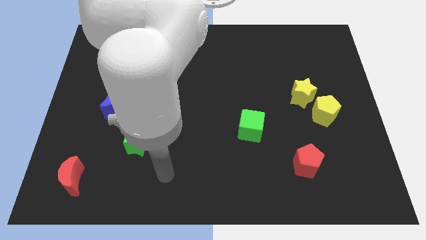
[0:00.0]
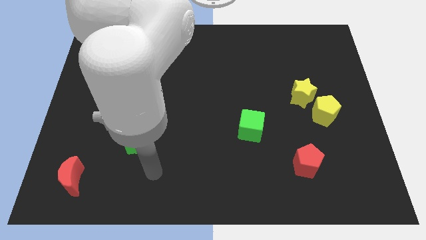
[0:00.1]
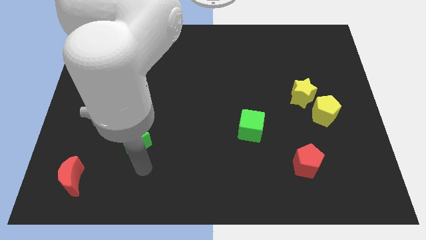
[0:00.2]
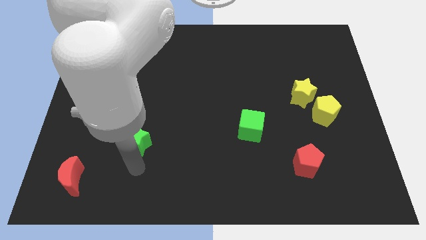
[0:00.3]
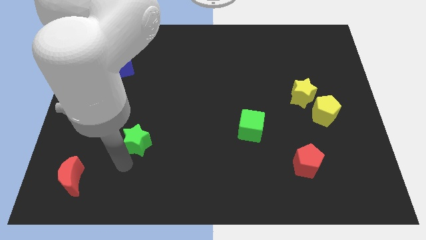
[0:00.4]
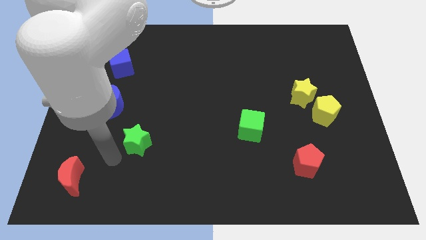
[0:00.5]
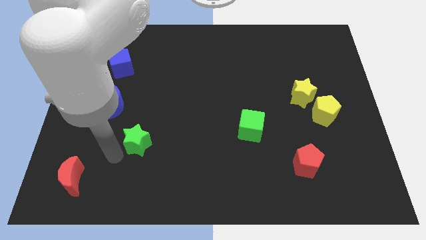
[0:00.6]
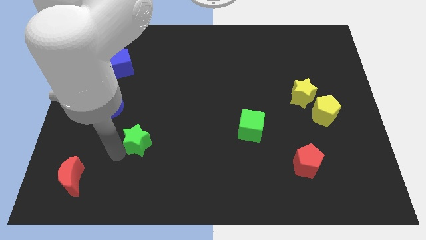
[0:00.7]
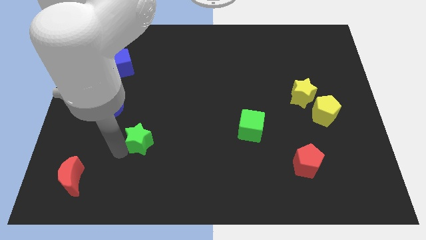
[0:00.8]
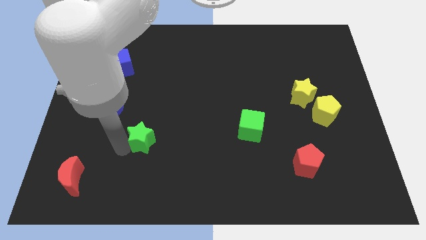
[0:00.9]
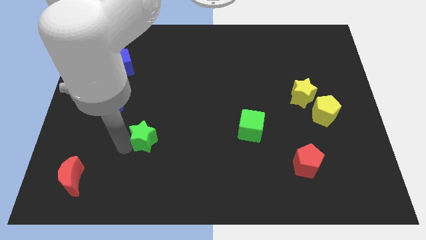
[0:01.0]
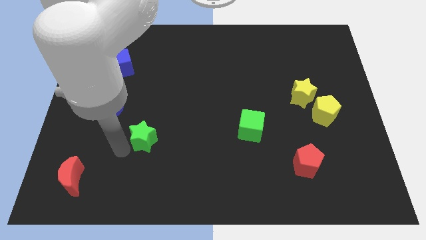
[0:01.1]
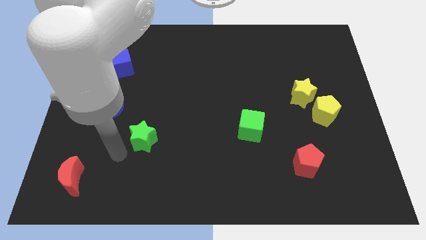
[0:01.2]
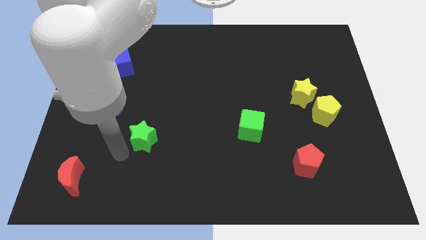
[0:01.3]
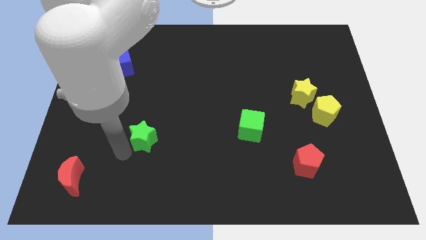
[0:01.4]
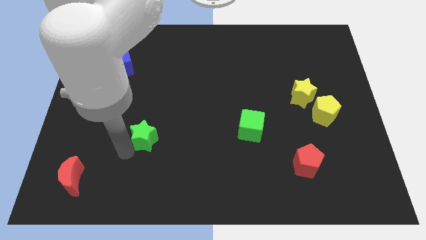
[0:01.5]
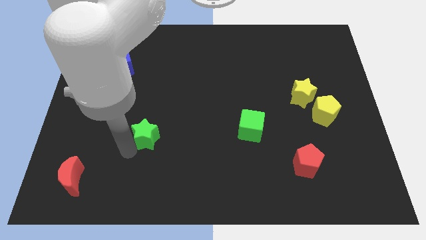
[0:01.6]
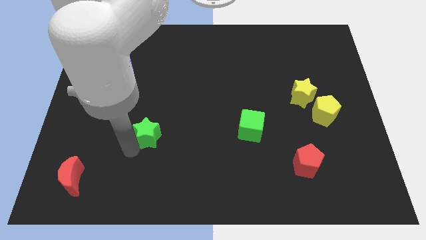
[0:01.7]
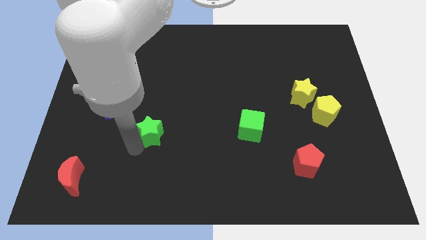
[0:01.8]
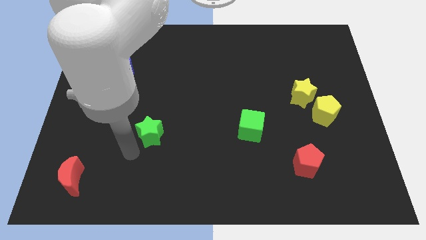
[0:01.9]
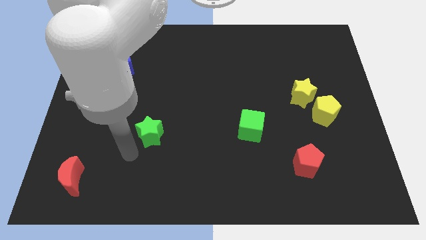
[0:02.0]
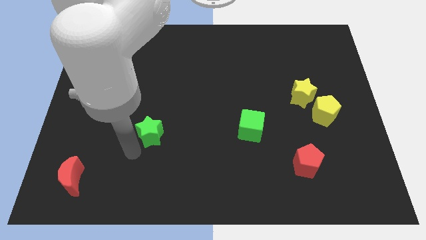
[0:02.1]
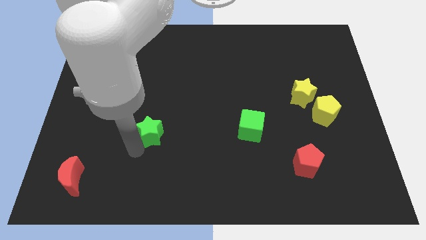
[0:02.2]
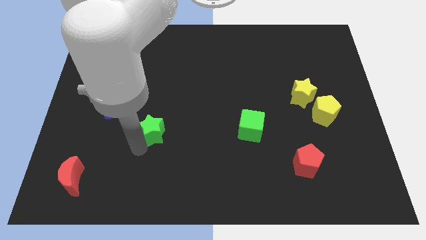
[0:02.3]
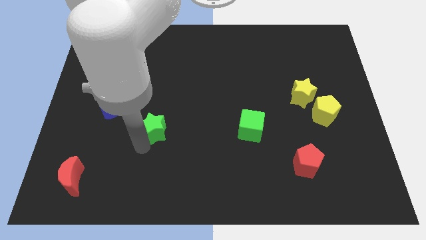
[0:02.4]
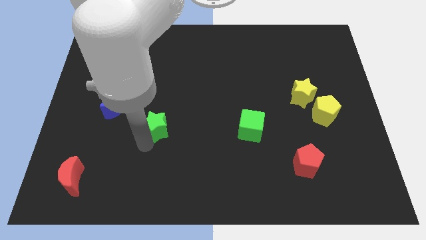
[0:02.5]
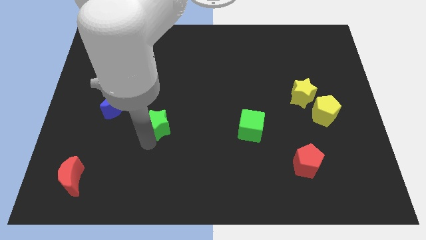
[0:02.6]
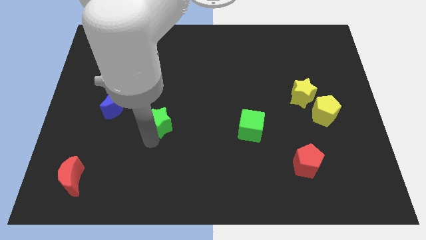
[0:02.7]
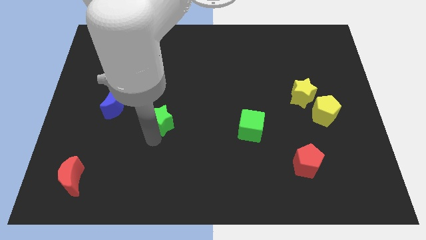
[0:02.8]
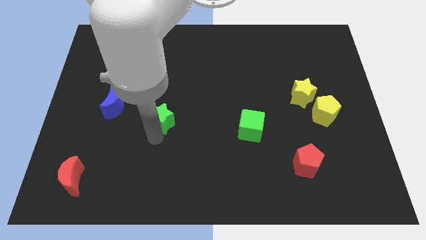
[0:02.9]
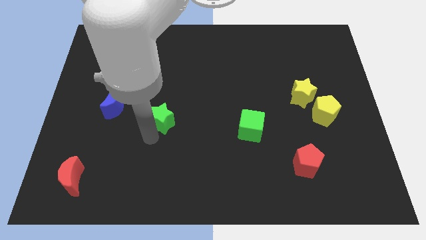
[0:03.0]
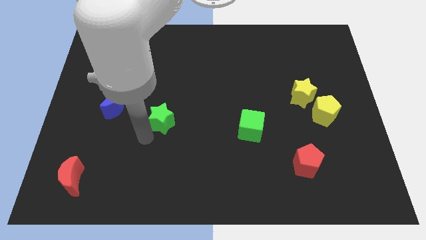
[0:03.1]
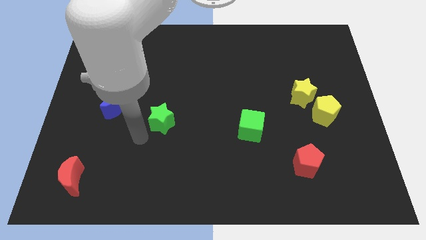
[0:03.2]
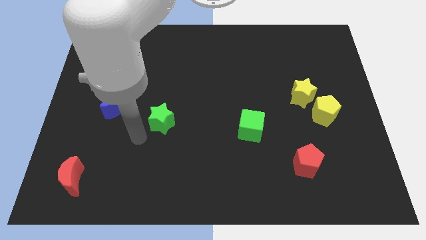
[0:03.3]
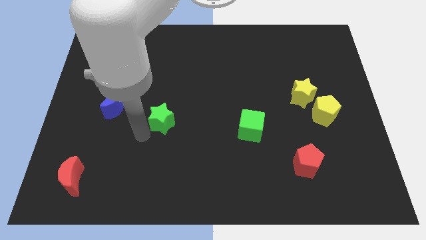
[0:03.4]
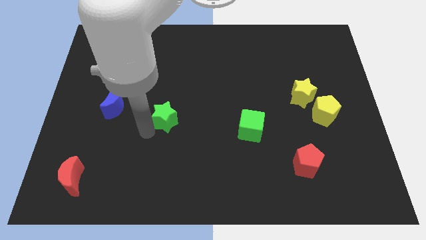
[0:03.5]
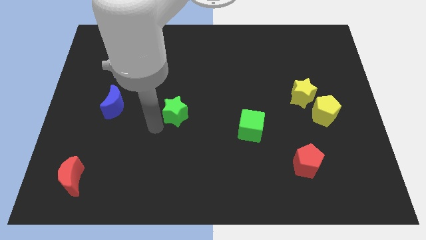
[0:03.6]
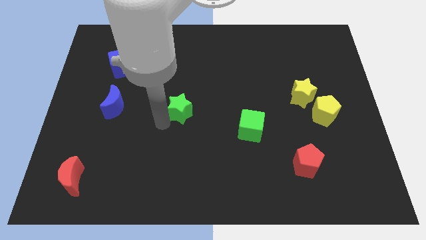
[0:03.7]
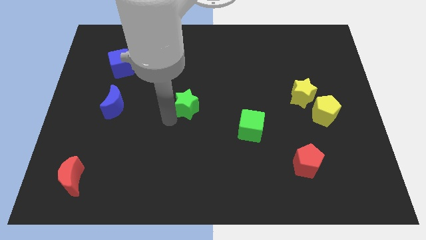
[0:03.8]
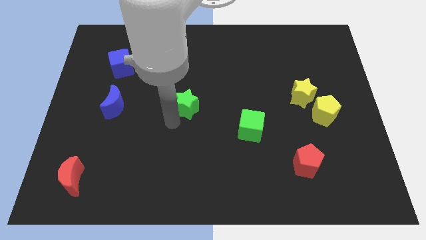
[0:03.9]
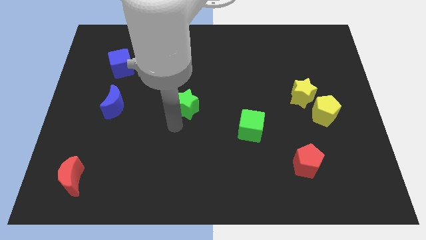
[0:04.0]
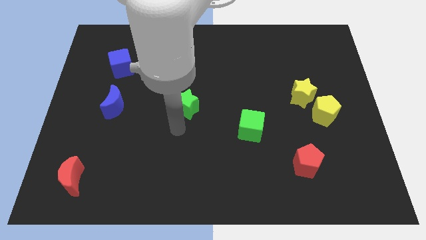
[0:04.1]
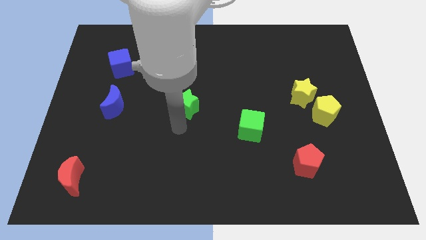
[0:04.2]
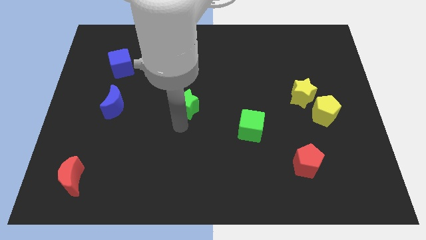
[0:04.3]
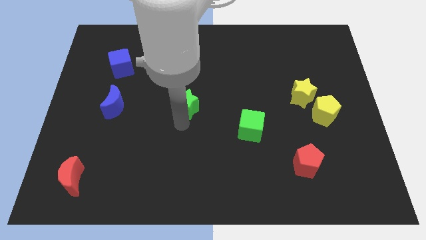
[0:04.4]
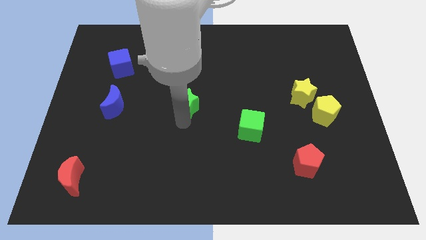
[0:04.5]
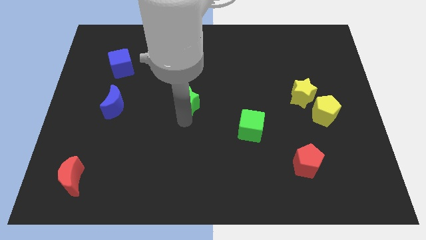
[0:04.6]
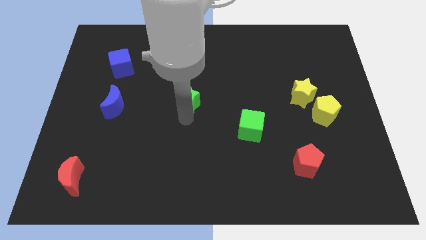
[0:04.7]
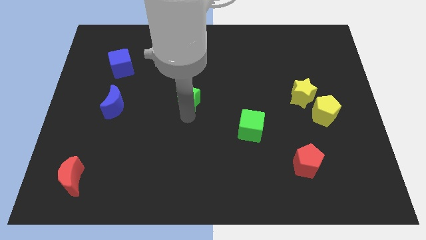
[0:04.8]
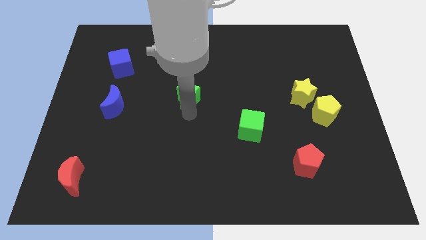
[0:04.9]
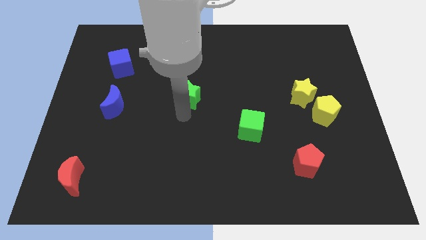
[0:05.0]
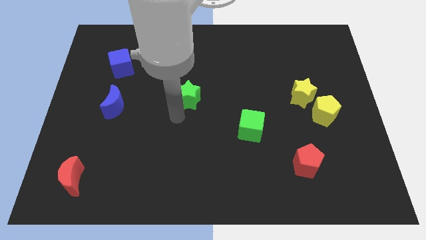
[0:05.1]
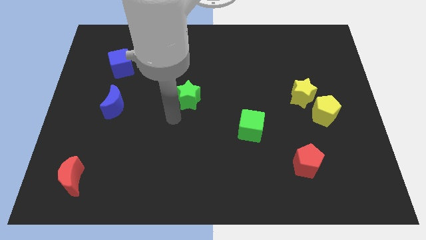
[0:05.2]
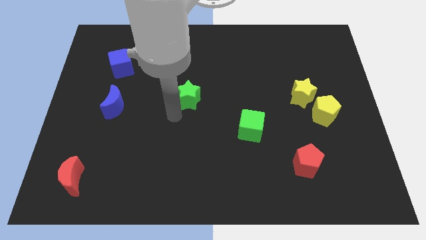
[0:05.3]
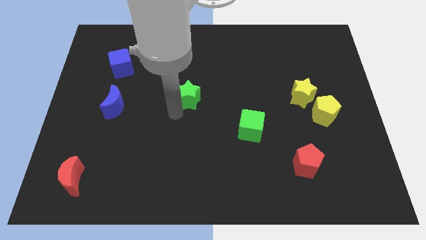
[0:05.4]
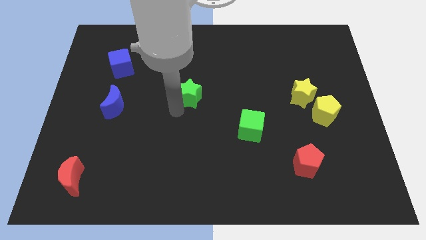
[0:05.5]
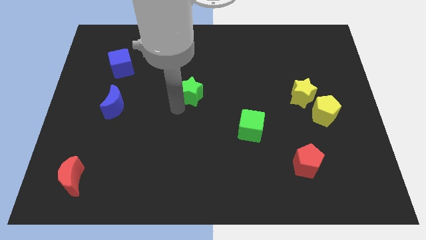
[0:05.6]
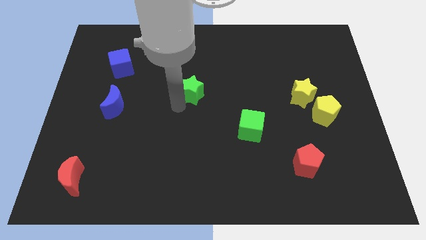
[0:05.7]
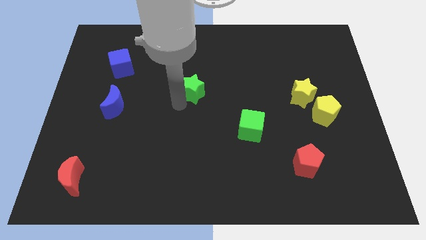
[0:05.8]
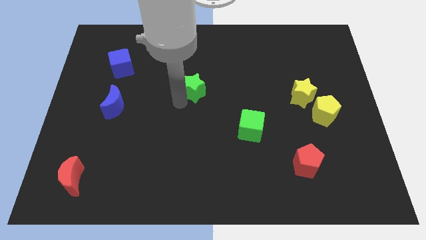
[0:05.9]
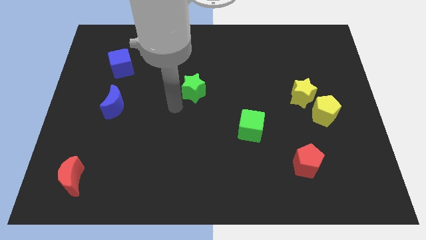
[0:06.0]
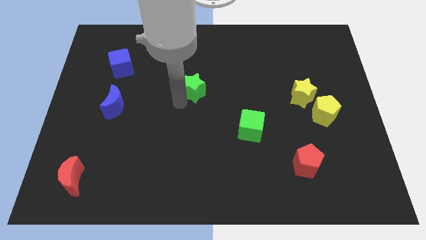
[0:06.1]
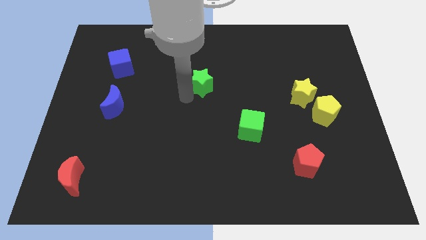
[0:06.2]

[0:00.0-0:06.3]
slide the green star up and then to the right

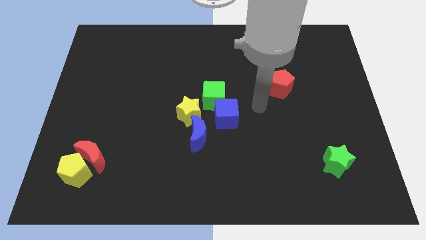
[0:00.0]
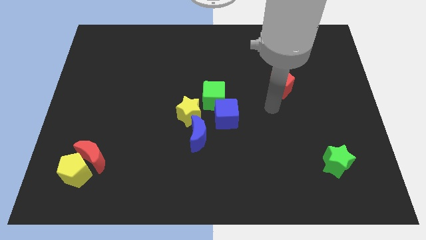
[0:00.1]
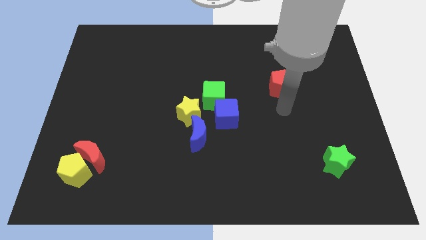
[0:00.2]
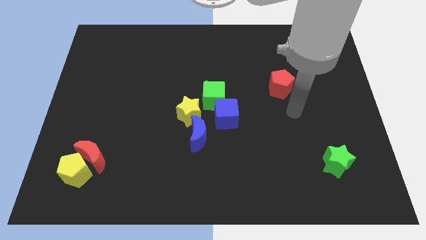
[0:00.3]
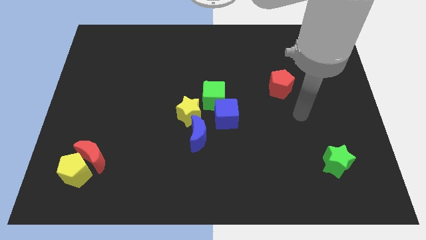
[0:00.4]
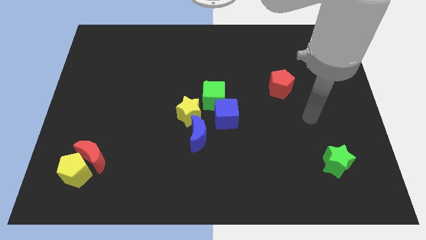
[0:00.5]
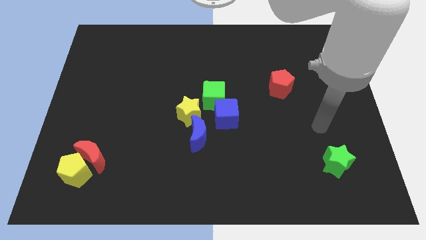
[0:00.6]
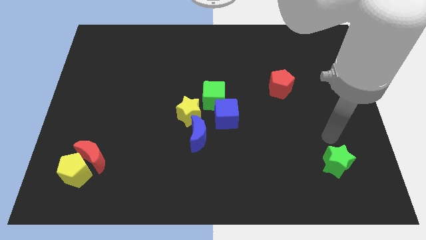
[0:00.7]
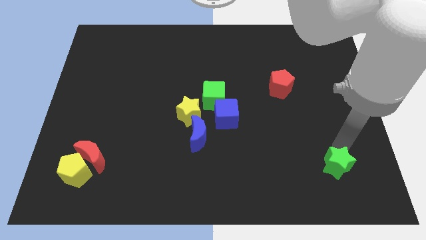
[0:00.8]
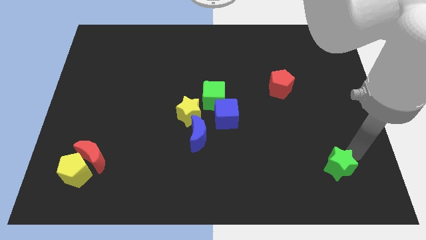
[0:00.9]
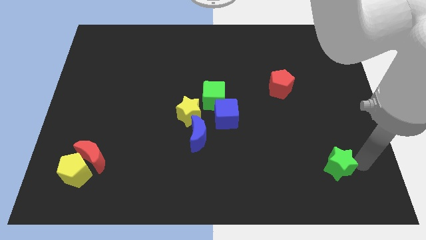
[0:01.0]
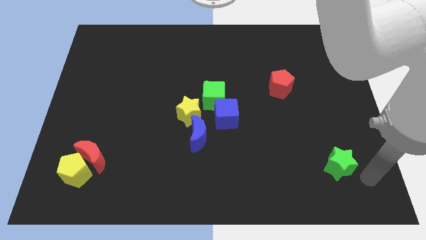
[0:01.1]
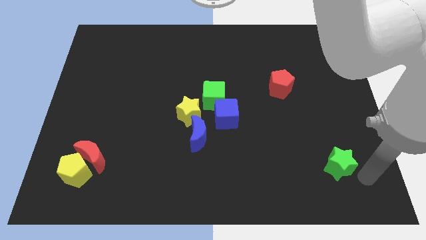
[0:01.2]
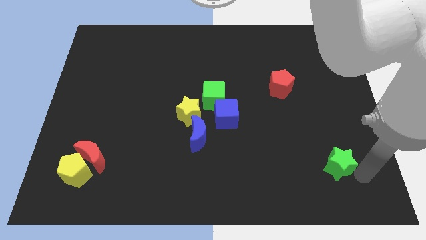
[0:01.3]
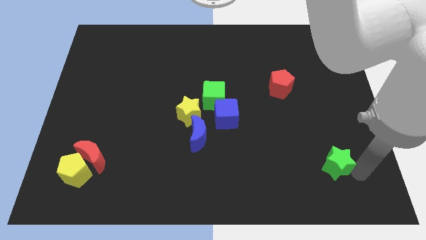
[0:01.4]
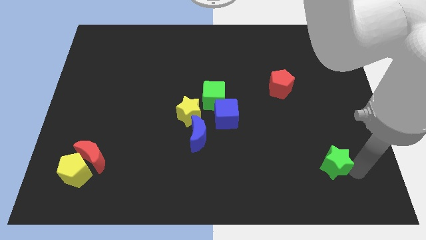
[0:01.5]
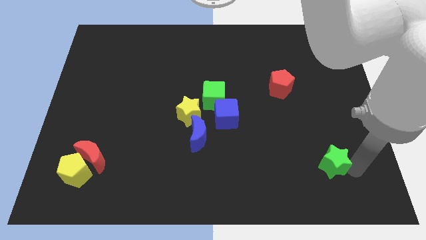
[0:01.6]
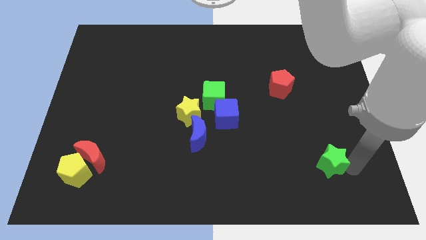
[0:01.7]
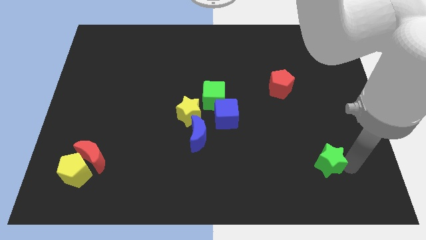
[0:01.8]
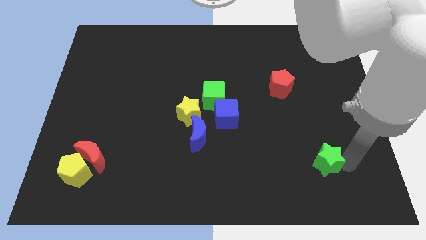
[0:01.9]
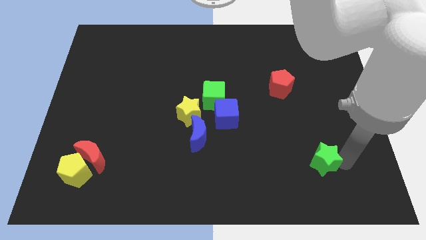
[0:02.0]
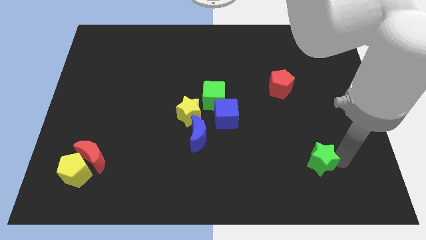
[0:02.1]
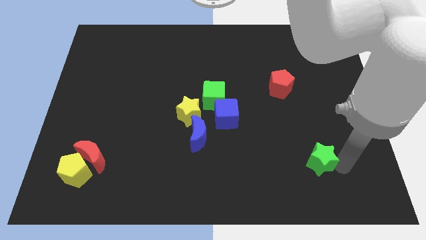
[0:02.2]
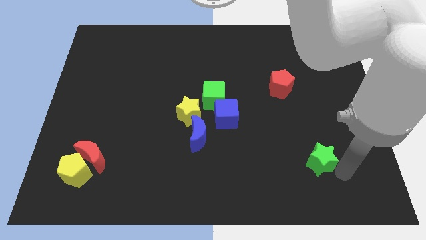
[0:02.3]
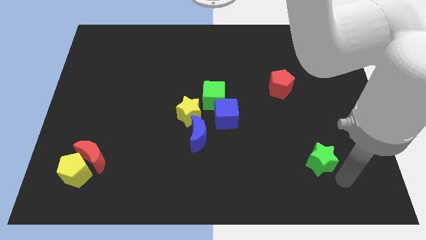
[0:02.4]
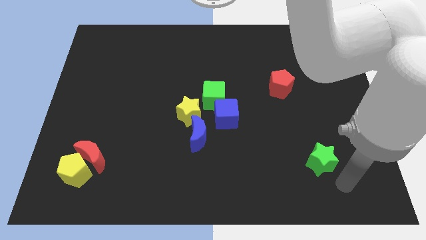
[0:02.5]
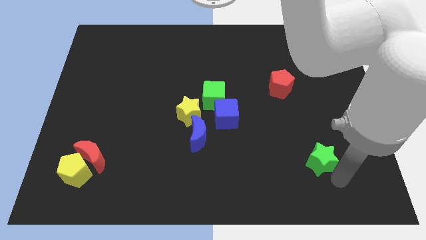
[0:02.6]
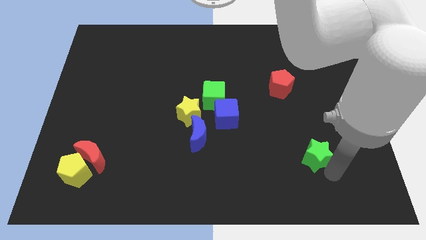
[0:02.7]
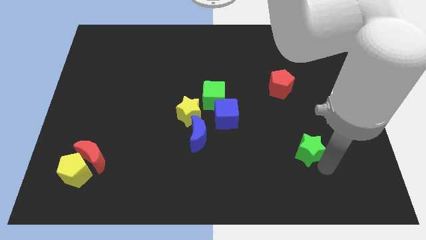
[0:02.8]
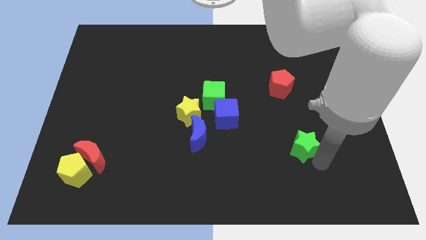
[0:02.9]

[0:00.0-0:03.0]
slightly push the green star up and then to the left
